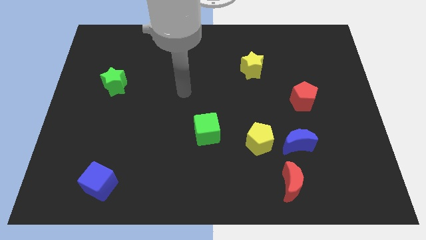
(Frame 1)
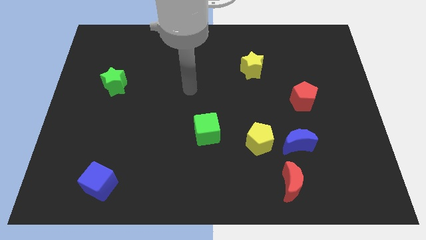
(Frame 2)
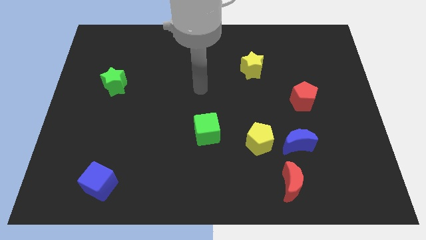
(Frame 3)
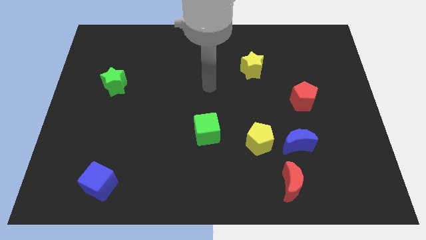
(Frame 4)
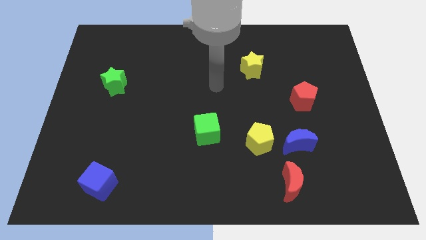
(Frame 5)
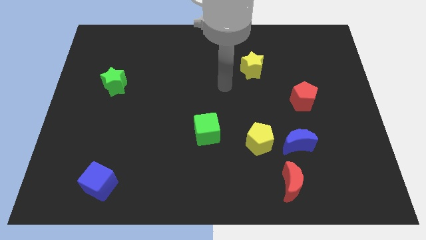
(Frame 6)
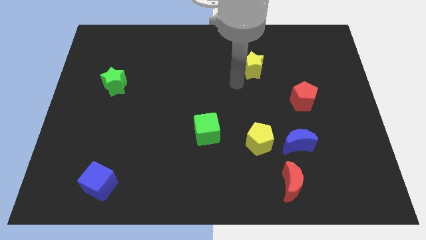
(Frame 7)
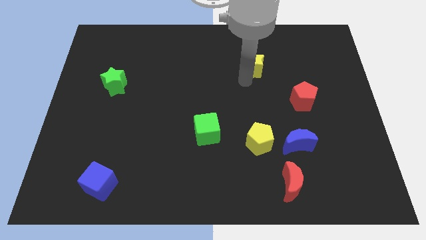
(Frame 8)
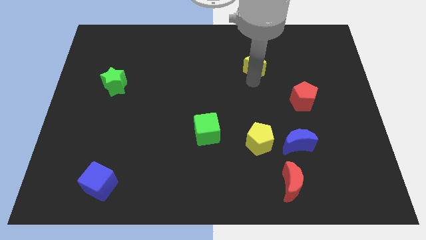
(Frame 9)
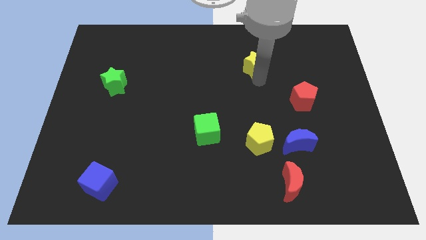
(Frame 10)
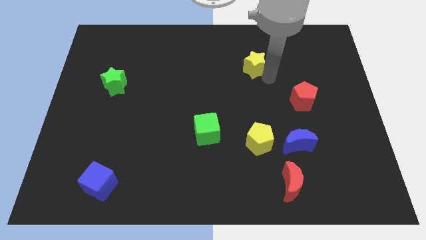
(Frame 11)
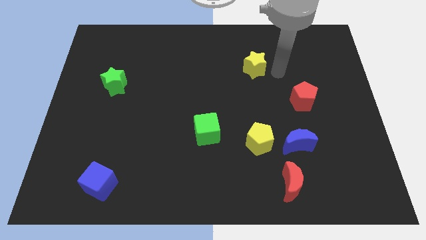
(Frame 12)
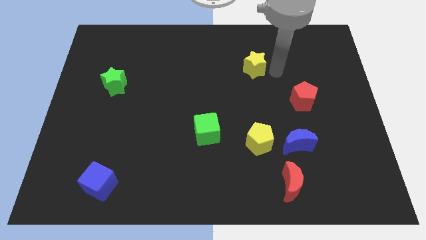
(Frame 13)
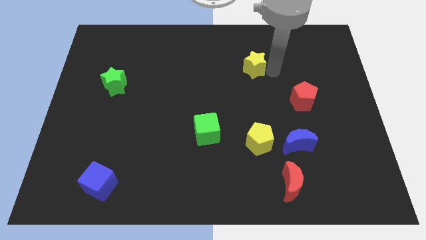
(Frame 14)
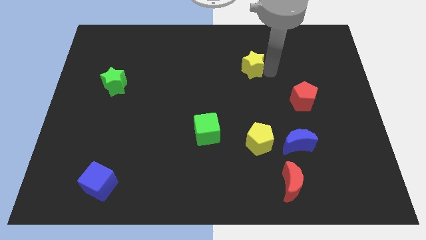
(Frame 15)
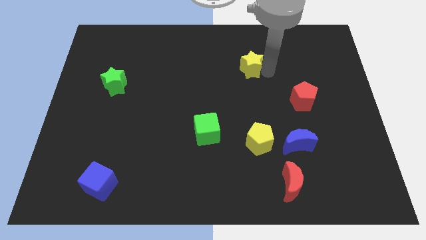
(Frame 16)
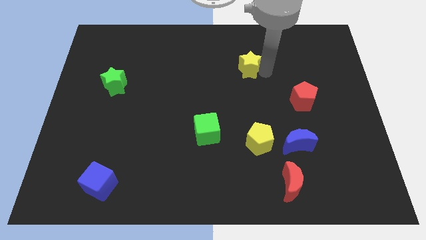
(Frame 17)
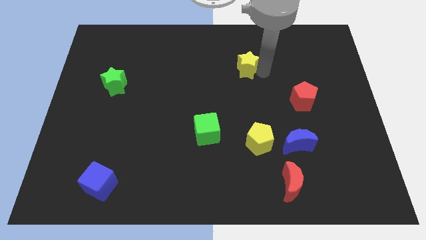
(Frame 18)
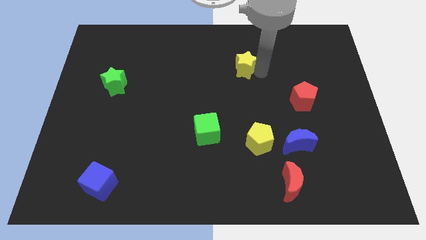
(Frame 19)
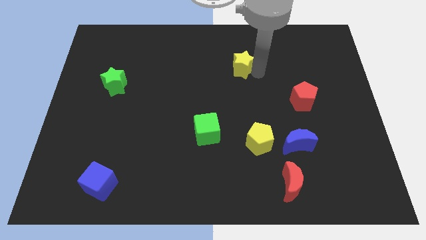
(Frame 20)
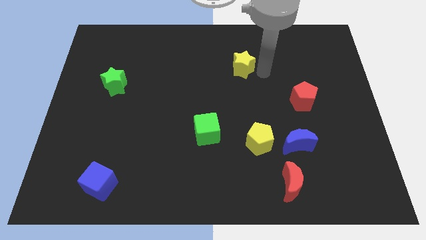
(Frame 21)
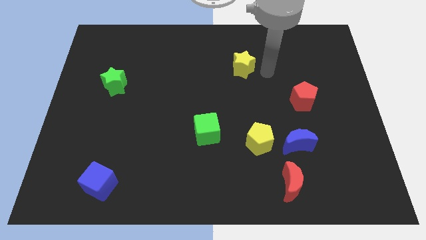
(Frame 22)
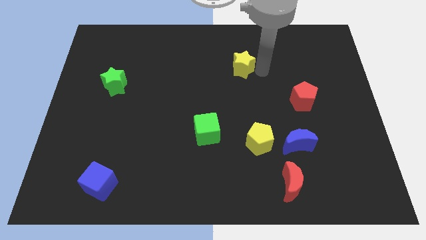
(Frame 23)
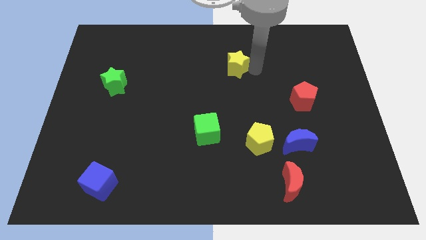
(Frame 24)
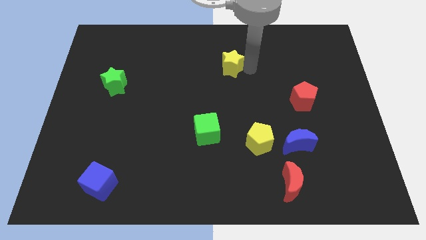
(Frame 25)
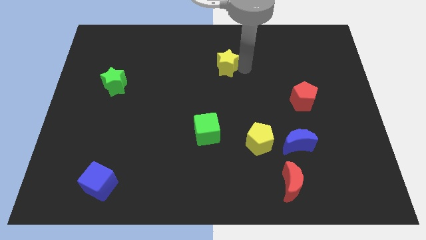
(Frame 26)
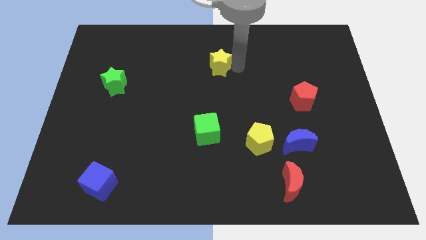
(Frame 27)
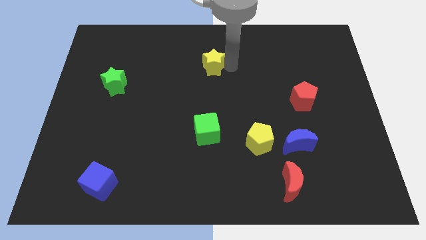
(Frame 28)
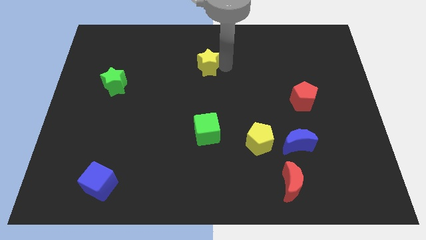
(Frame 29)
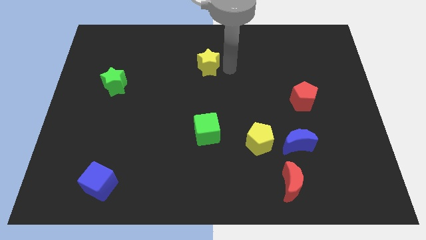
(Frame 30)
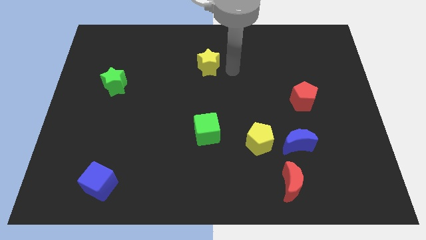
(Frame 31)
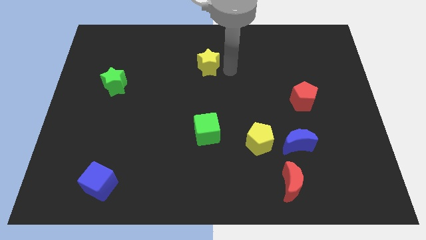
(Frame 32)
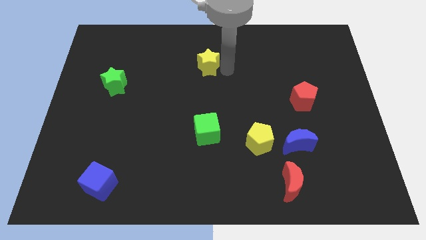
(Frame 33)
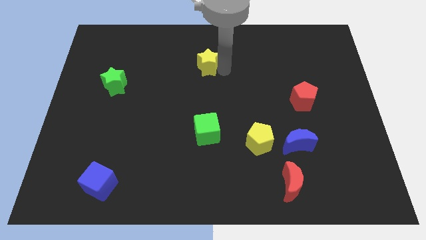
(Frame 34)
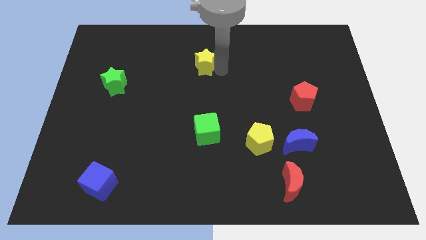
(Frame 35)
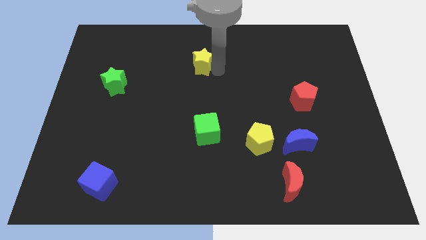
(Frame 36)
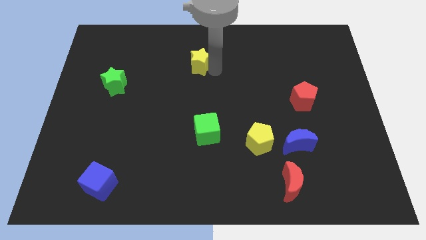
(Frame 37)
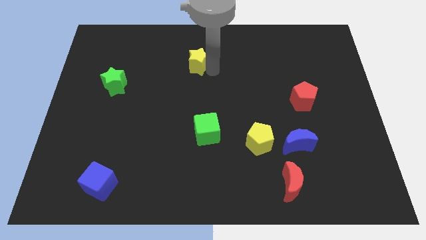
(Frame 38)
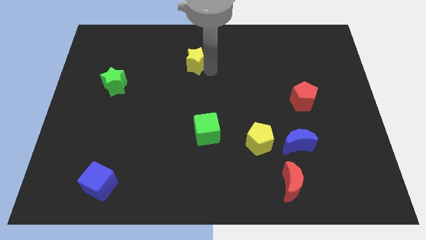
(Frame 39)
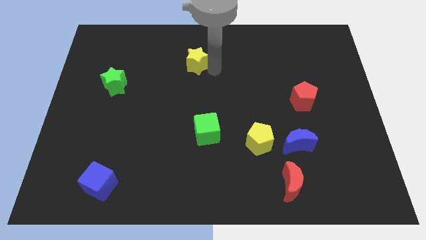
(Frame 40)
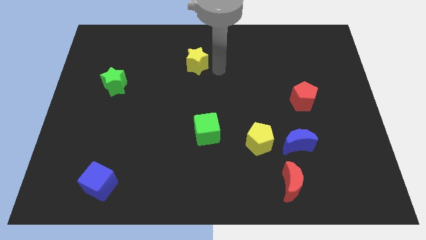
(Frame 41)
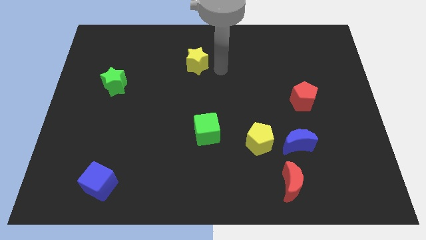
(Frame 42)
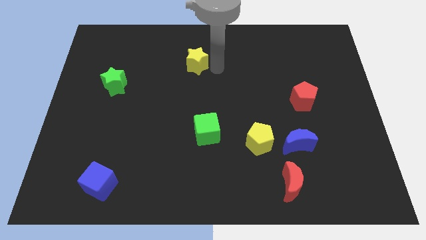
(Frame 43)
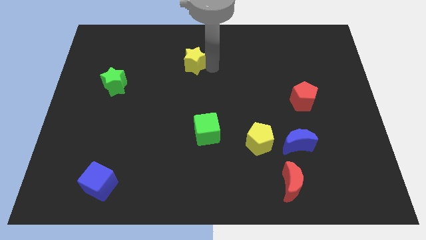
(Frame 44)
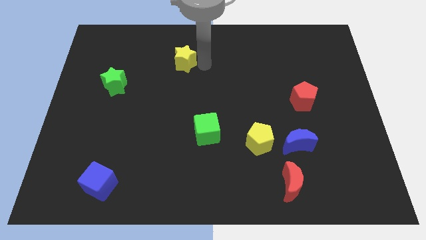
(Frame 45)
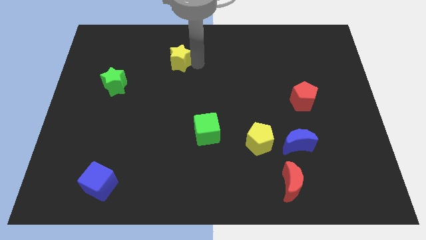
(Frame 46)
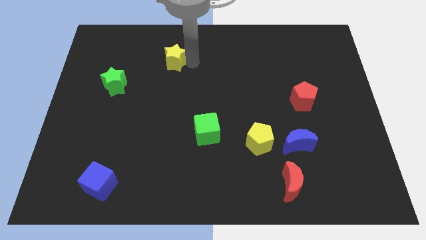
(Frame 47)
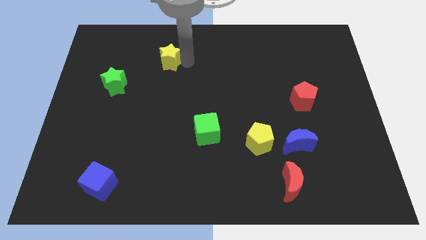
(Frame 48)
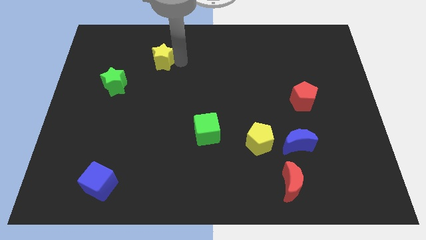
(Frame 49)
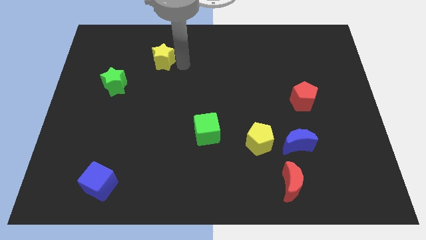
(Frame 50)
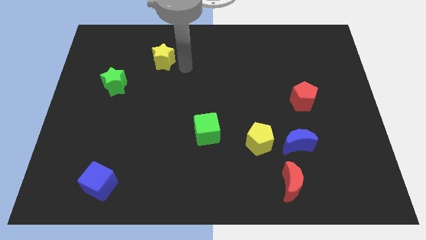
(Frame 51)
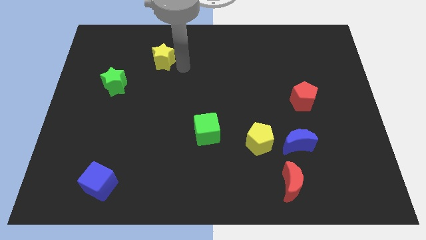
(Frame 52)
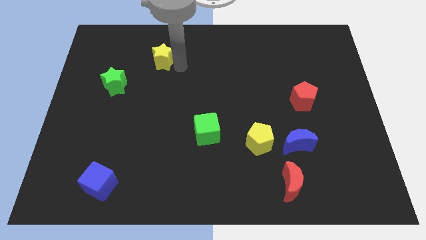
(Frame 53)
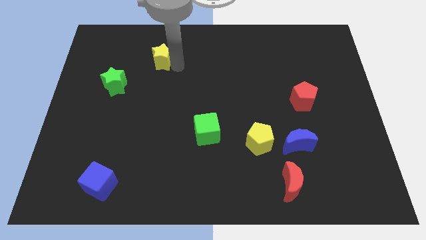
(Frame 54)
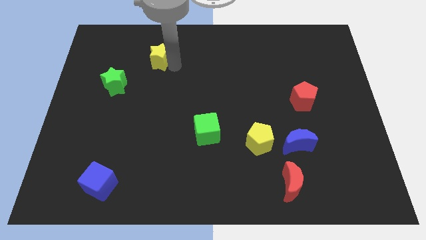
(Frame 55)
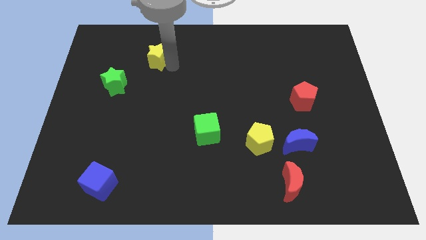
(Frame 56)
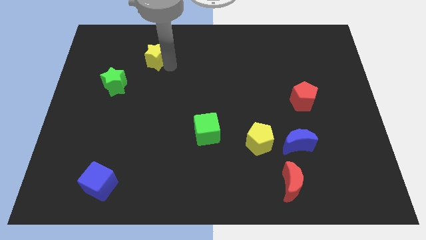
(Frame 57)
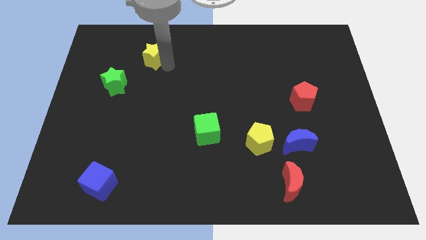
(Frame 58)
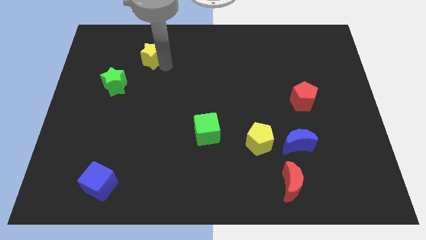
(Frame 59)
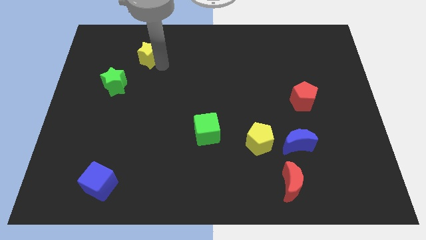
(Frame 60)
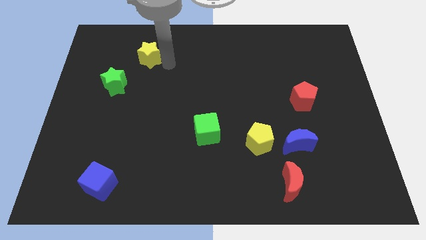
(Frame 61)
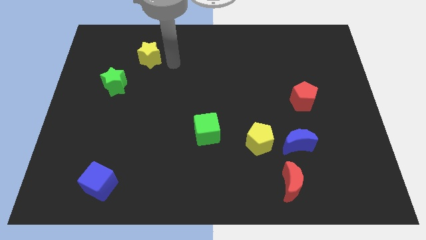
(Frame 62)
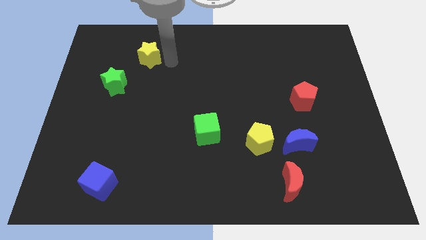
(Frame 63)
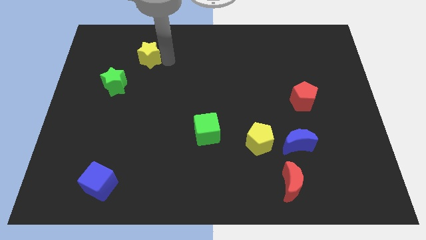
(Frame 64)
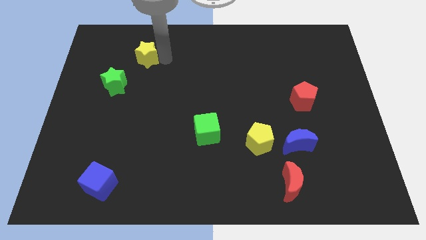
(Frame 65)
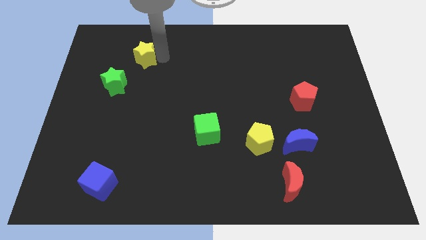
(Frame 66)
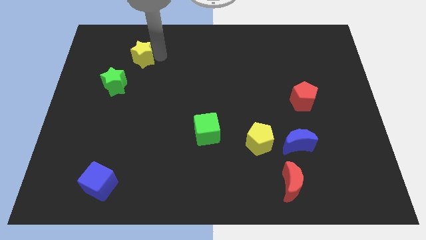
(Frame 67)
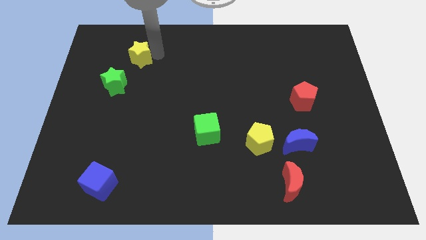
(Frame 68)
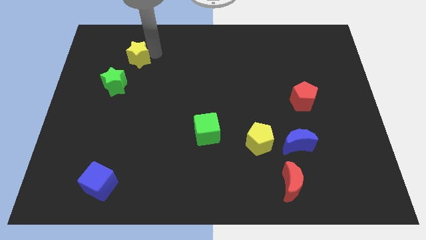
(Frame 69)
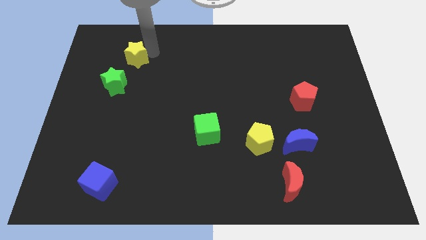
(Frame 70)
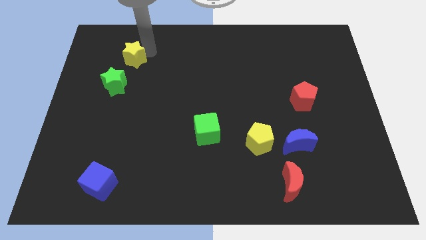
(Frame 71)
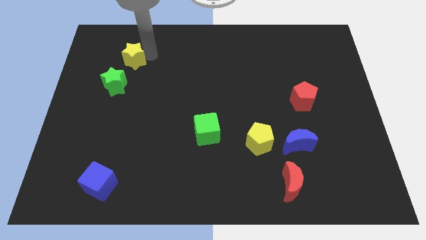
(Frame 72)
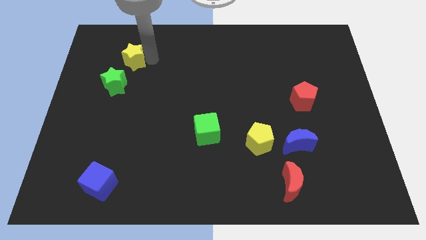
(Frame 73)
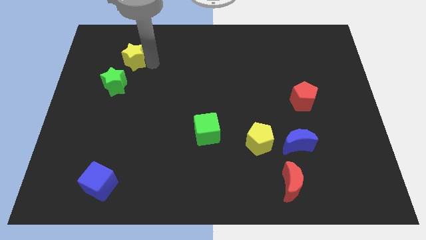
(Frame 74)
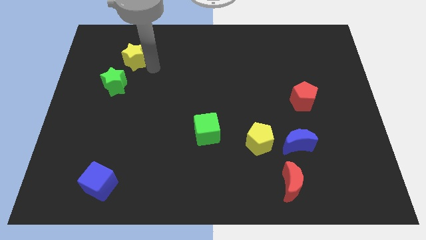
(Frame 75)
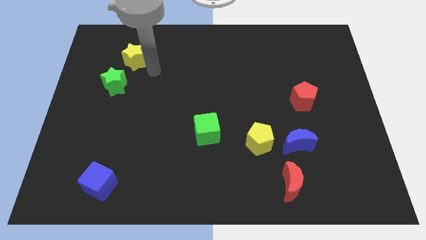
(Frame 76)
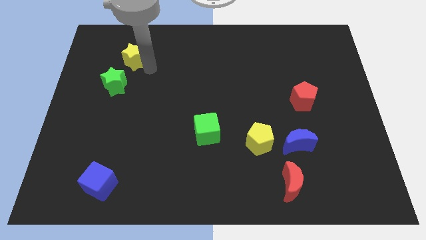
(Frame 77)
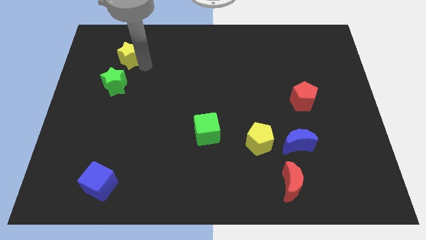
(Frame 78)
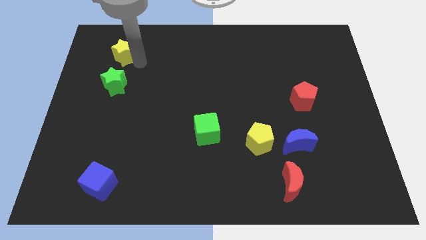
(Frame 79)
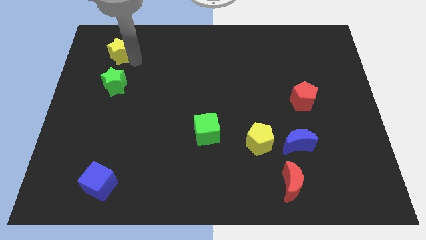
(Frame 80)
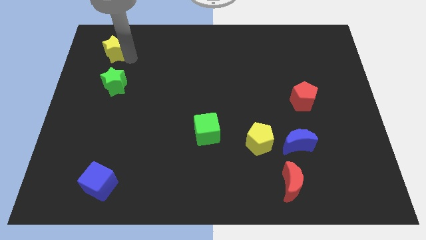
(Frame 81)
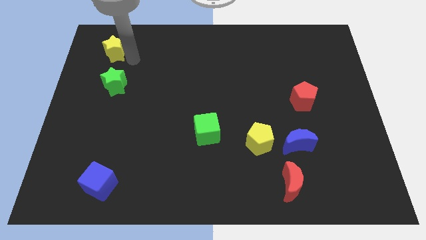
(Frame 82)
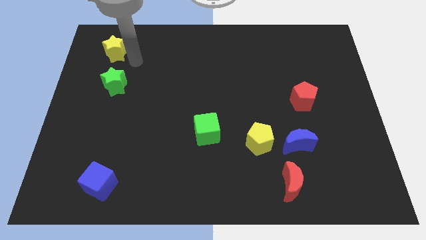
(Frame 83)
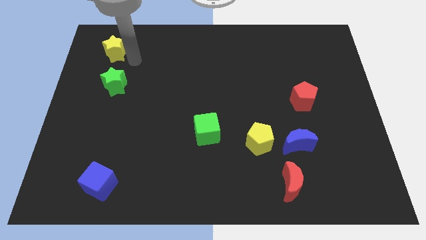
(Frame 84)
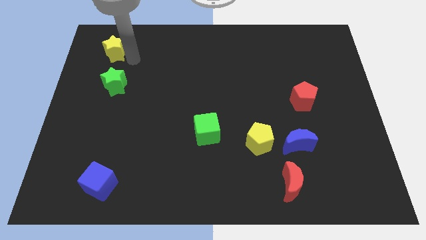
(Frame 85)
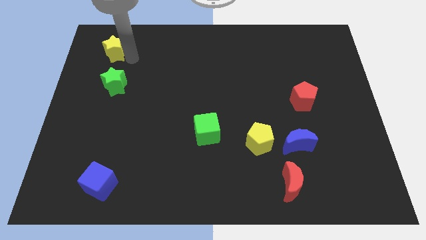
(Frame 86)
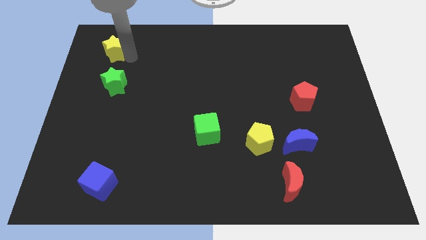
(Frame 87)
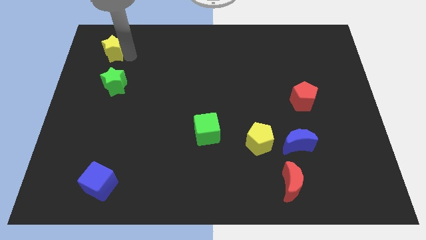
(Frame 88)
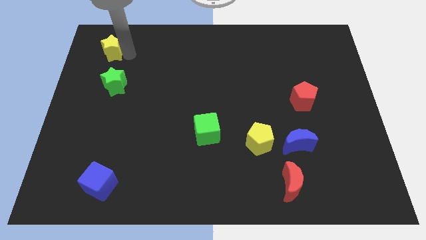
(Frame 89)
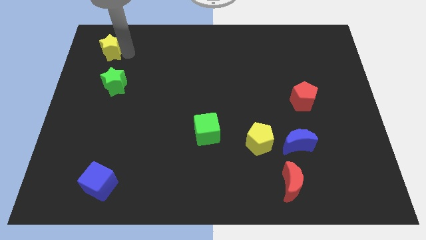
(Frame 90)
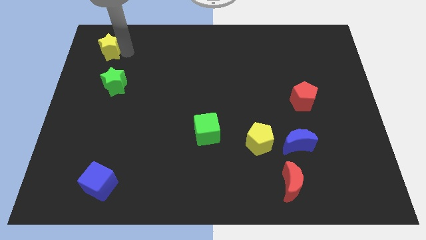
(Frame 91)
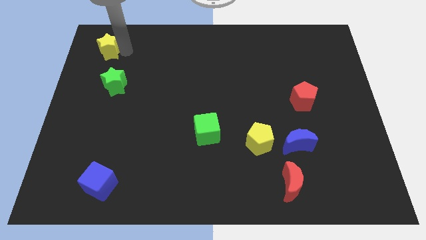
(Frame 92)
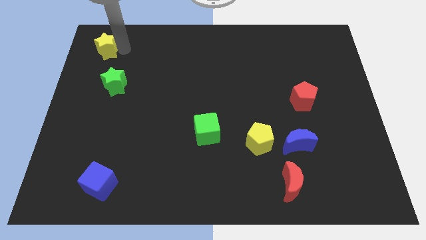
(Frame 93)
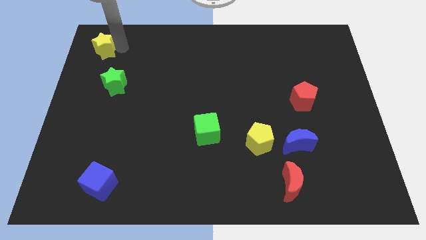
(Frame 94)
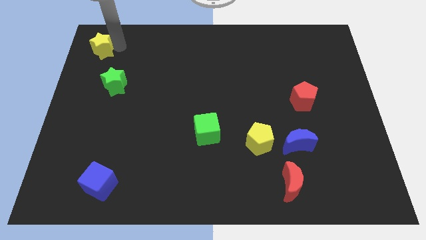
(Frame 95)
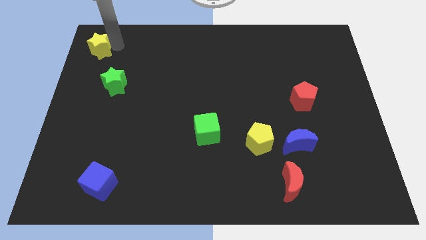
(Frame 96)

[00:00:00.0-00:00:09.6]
push the yellow star to the top left
